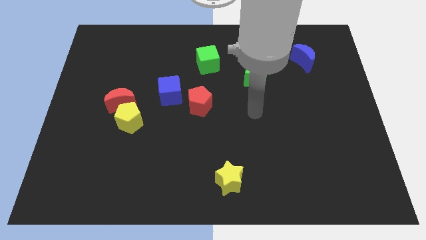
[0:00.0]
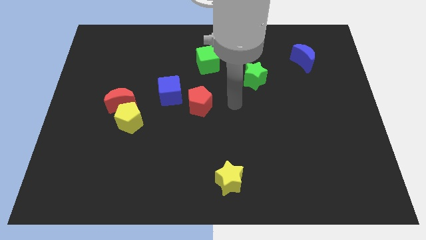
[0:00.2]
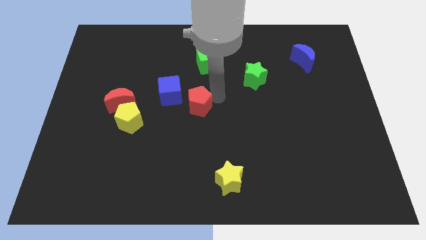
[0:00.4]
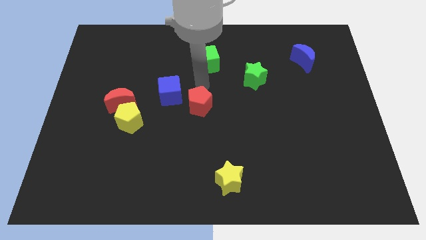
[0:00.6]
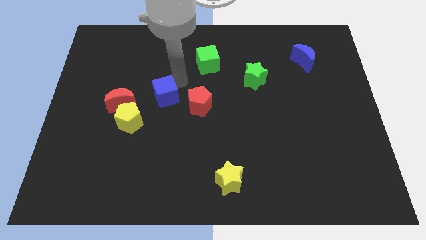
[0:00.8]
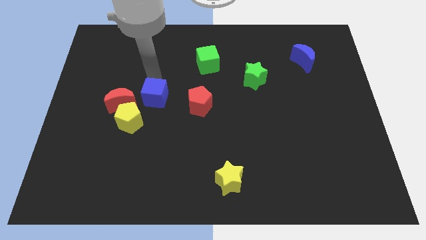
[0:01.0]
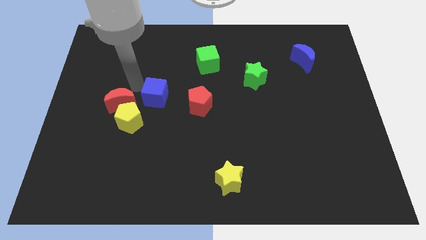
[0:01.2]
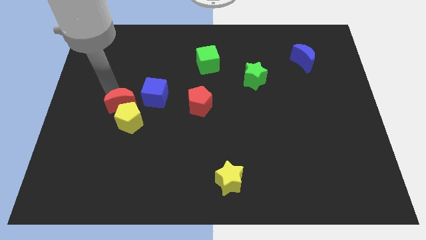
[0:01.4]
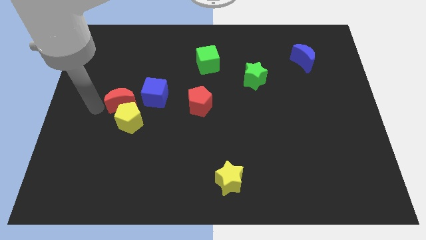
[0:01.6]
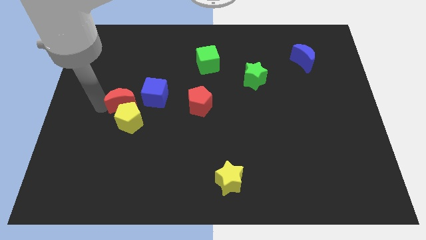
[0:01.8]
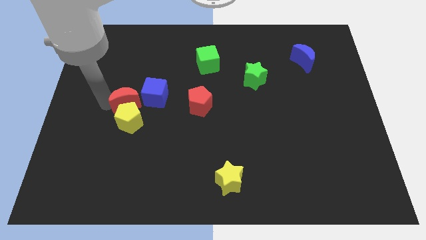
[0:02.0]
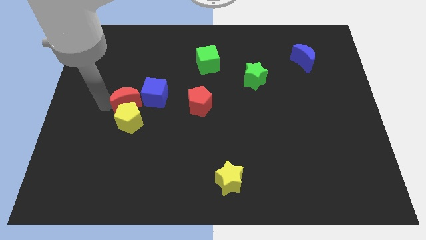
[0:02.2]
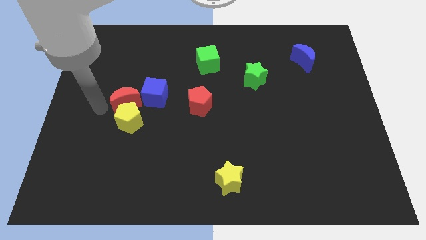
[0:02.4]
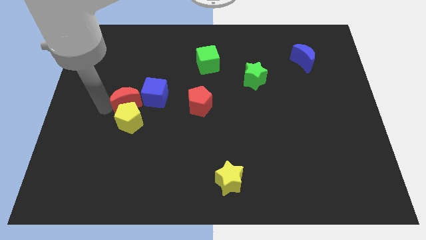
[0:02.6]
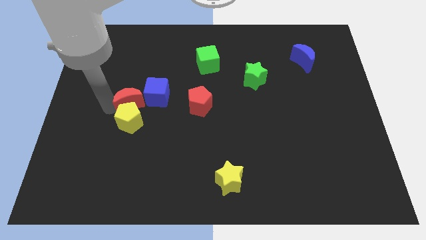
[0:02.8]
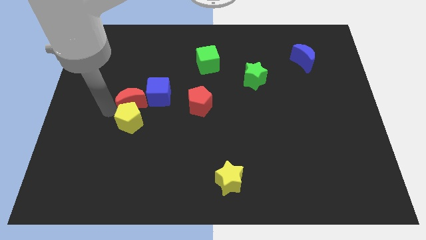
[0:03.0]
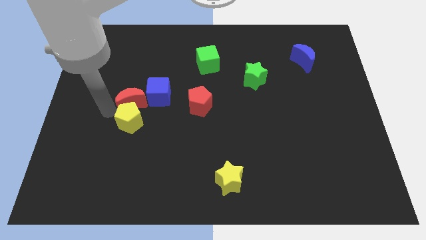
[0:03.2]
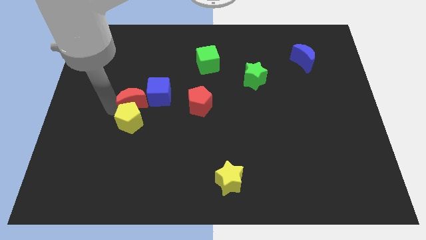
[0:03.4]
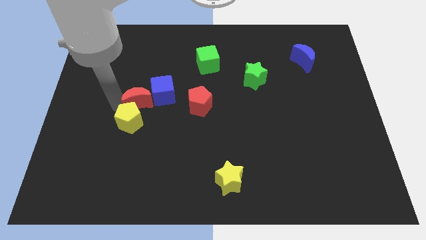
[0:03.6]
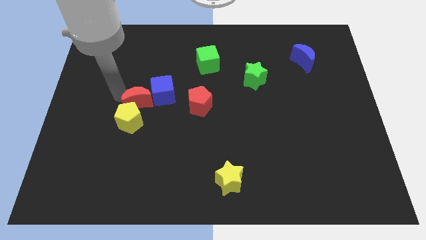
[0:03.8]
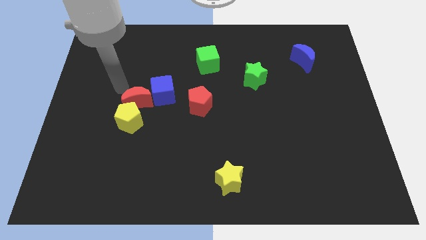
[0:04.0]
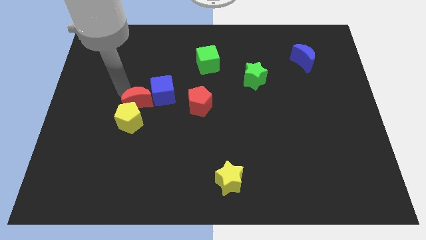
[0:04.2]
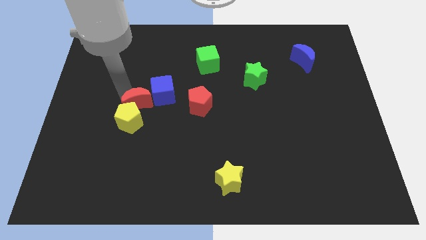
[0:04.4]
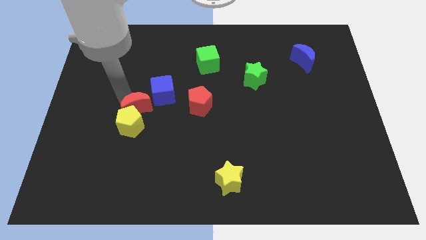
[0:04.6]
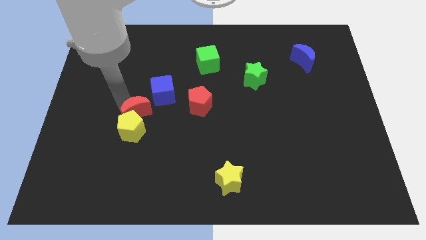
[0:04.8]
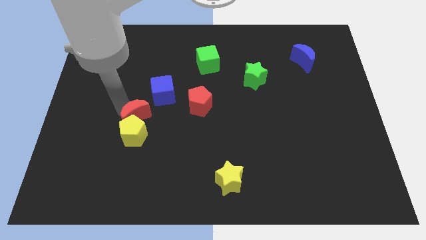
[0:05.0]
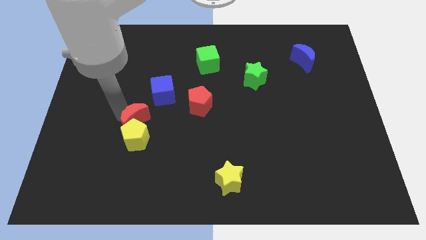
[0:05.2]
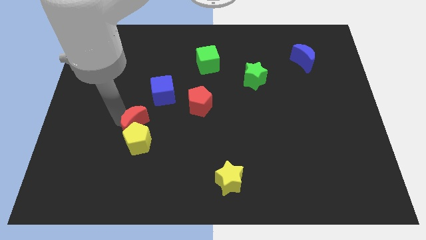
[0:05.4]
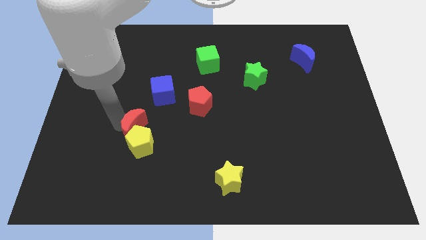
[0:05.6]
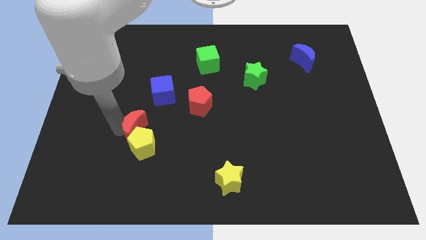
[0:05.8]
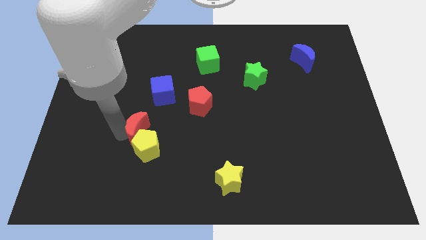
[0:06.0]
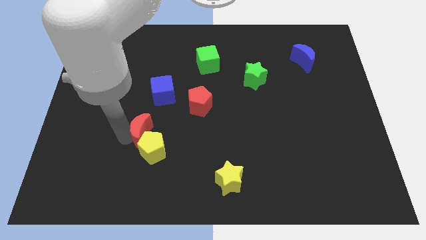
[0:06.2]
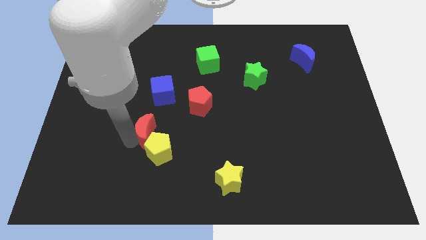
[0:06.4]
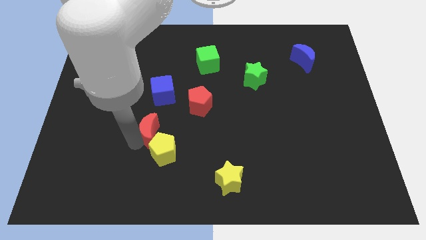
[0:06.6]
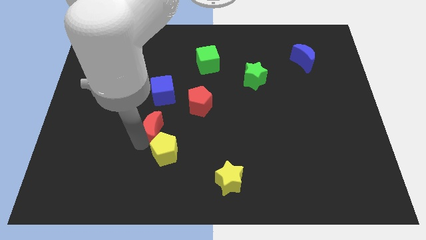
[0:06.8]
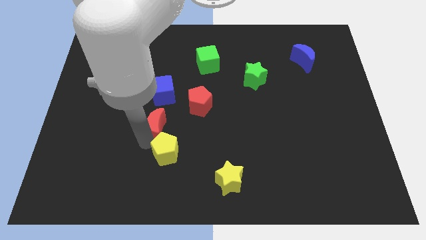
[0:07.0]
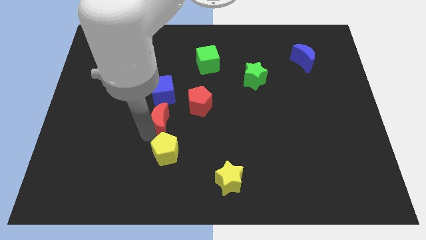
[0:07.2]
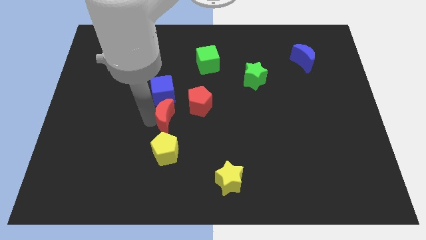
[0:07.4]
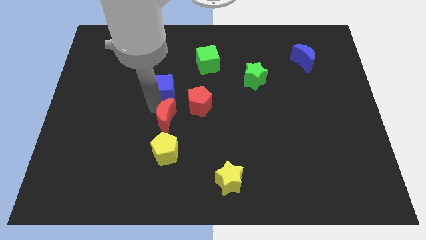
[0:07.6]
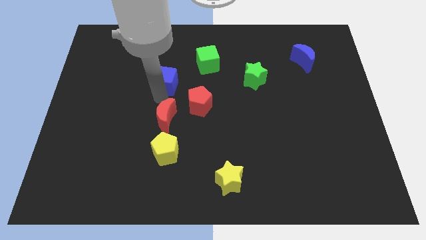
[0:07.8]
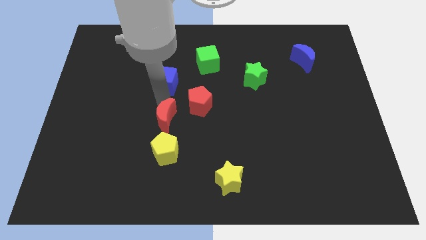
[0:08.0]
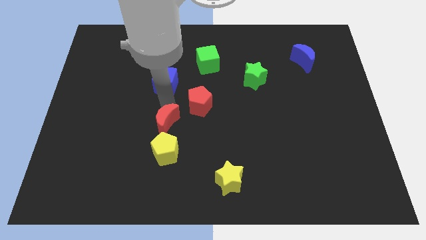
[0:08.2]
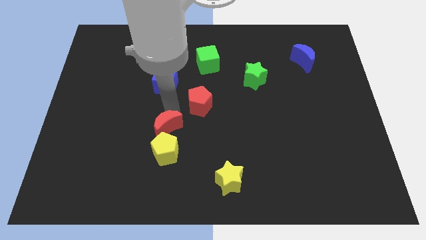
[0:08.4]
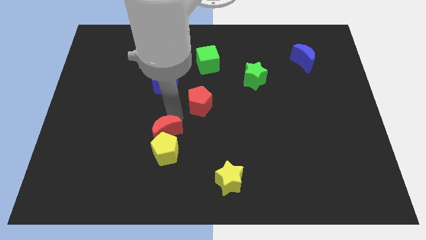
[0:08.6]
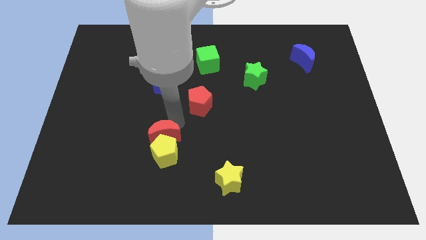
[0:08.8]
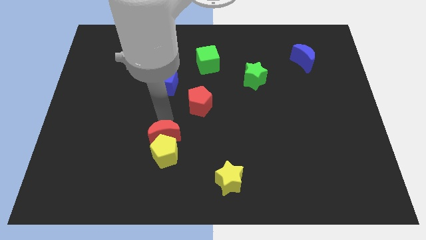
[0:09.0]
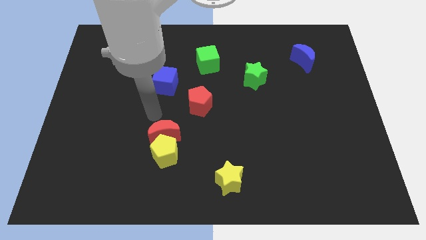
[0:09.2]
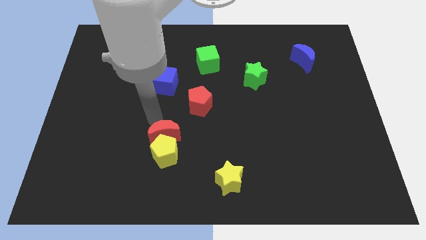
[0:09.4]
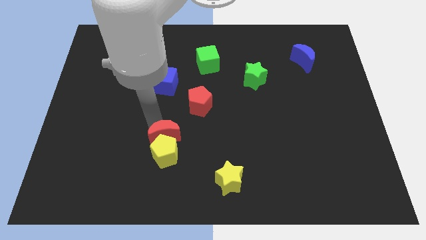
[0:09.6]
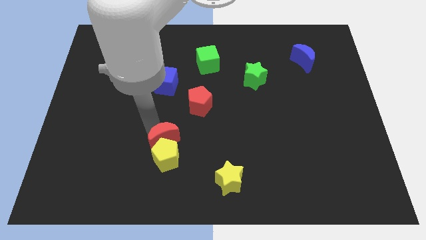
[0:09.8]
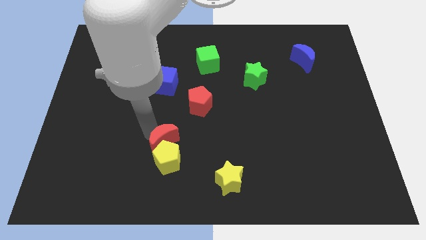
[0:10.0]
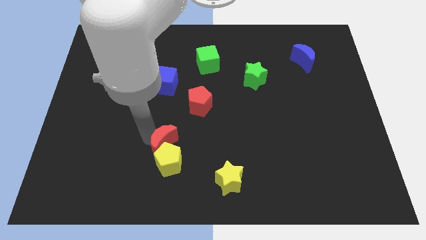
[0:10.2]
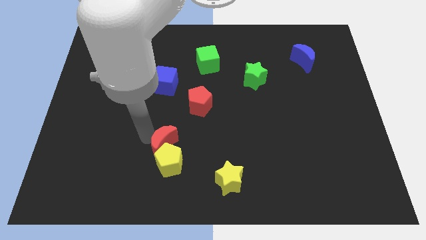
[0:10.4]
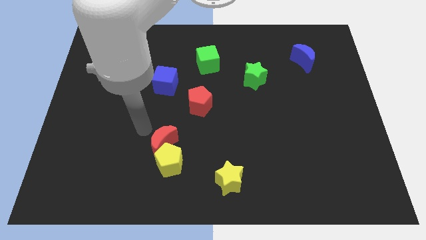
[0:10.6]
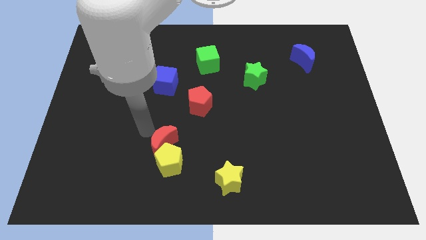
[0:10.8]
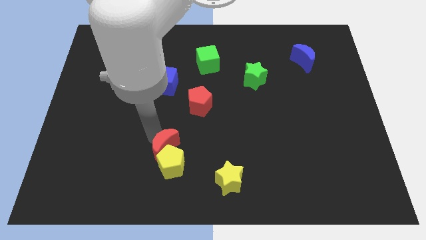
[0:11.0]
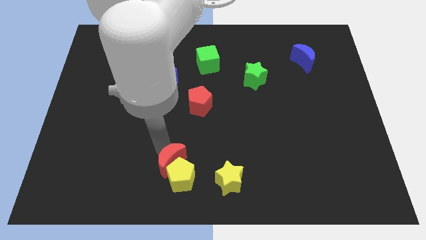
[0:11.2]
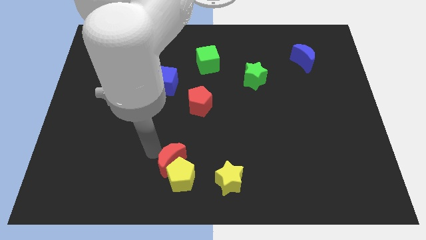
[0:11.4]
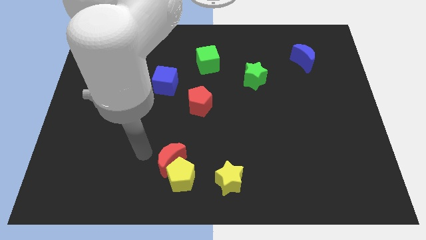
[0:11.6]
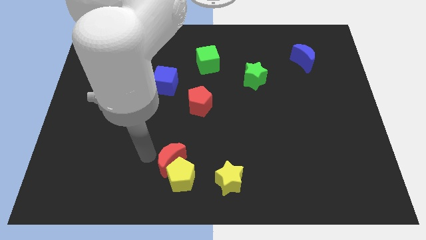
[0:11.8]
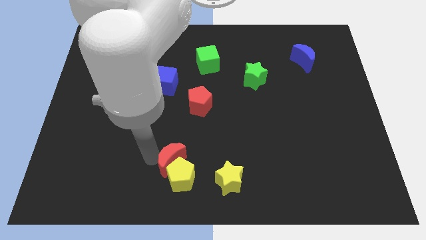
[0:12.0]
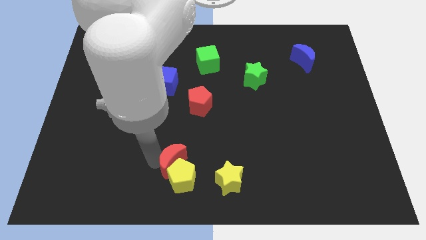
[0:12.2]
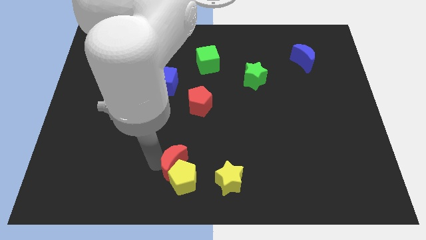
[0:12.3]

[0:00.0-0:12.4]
slide the red moon to the bottom
